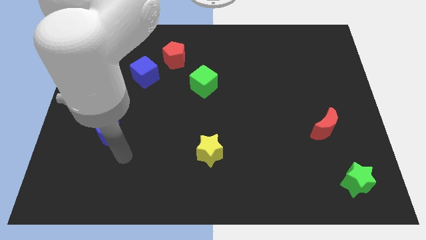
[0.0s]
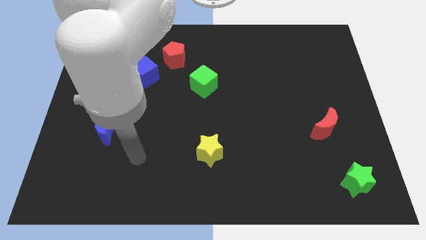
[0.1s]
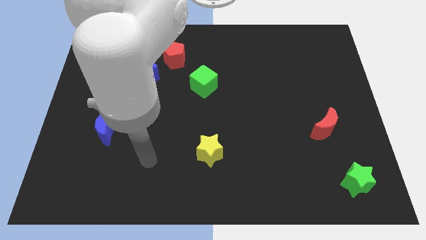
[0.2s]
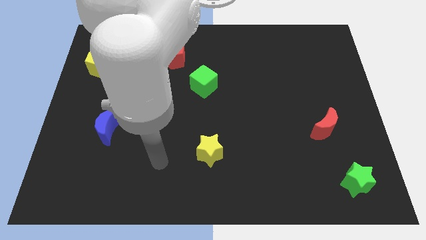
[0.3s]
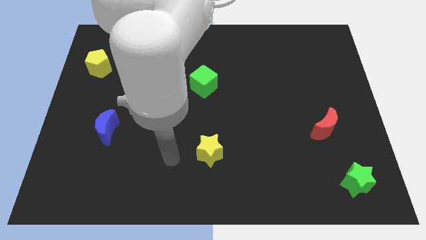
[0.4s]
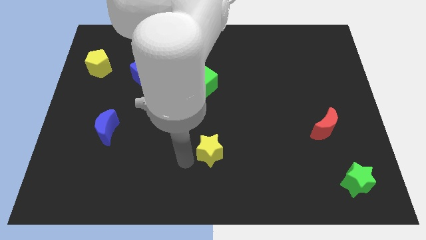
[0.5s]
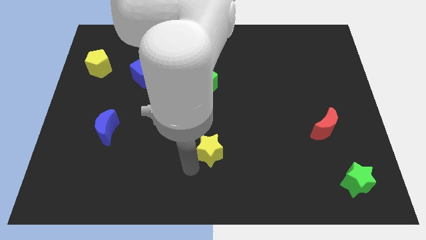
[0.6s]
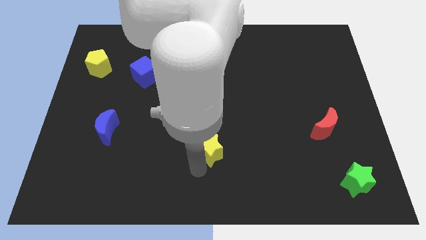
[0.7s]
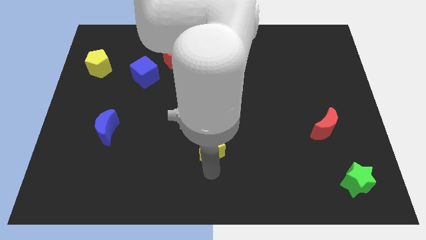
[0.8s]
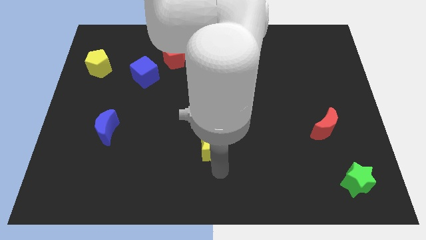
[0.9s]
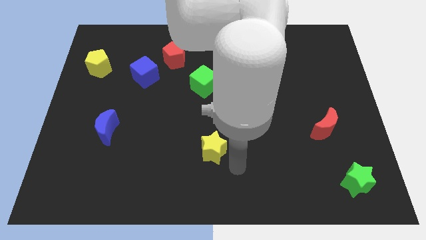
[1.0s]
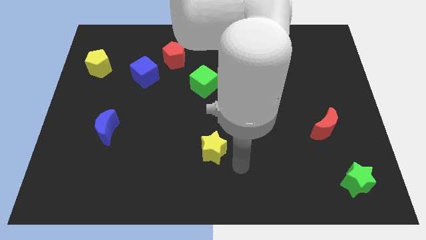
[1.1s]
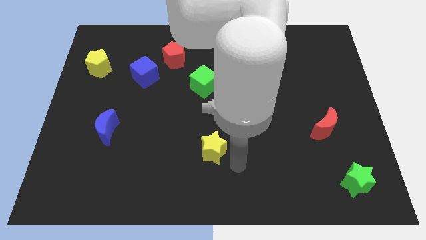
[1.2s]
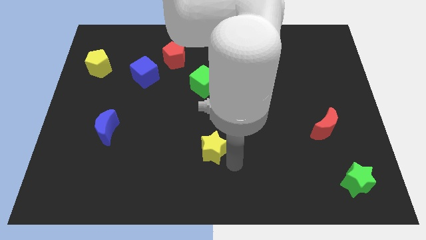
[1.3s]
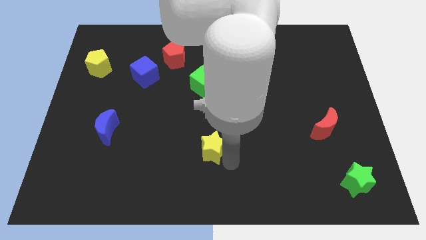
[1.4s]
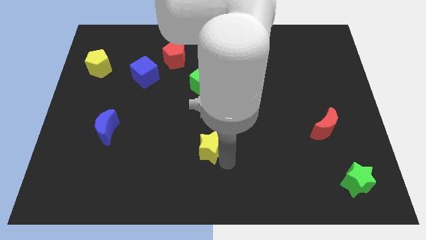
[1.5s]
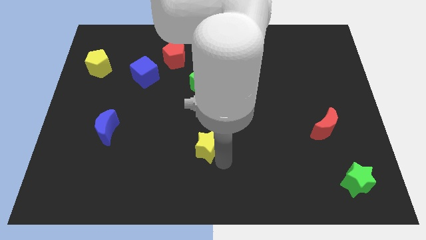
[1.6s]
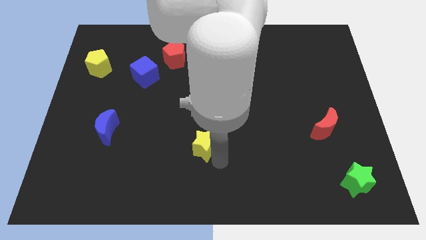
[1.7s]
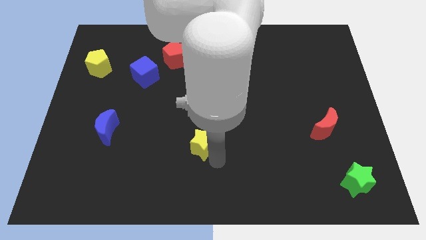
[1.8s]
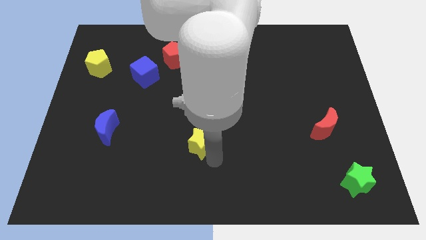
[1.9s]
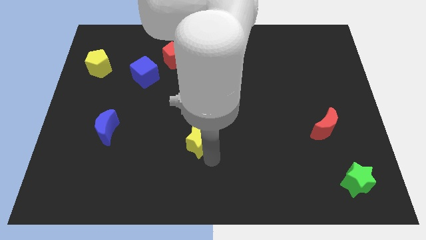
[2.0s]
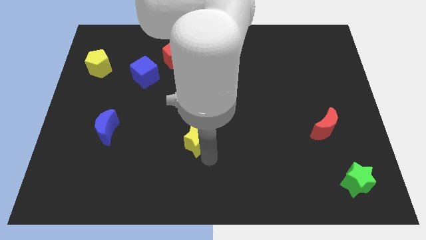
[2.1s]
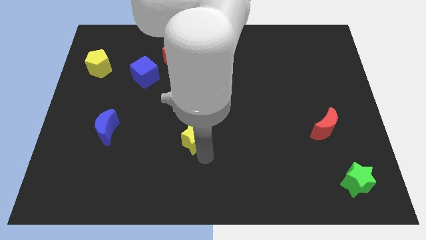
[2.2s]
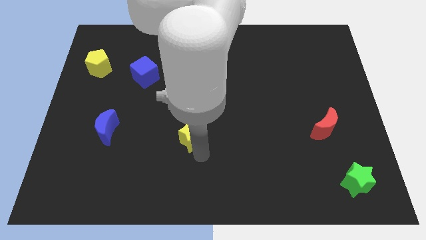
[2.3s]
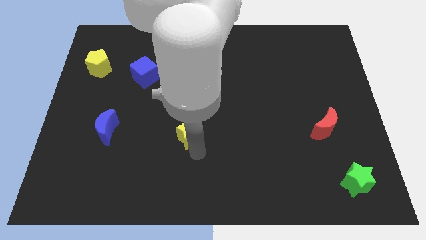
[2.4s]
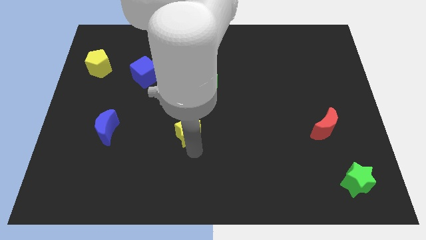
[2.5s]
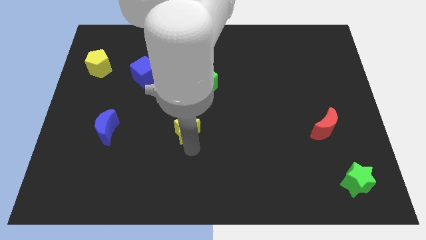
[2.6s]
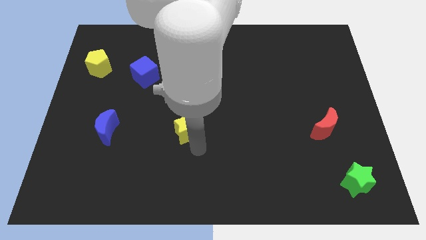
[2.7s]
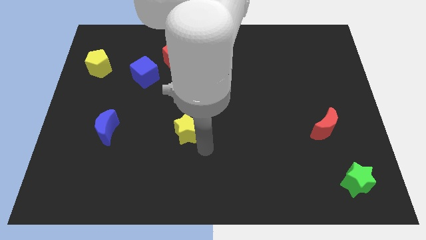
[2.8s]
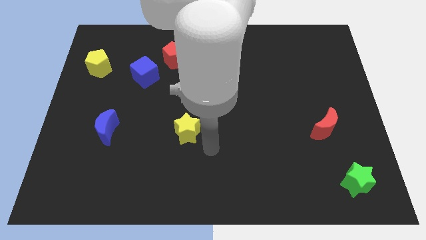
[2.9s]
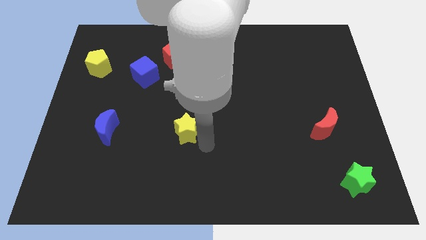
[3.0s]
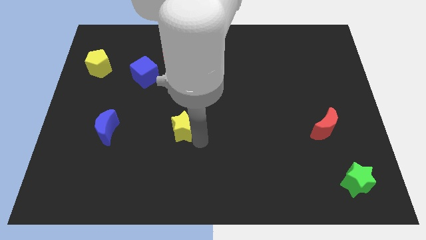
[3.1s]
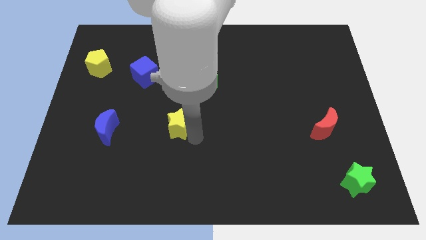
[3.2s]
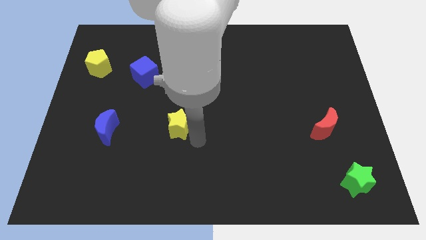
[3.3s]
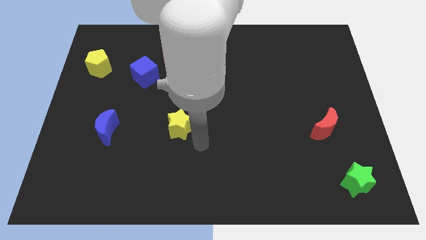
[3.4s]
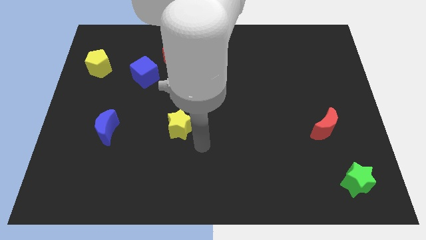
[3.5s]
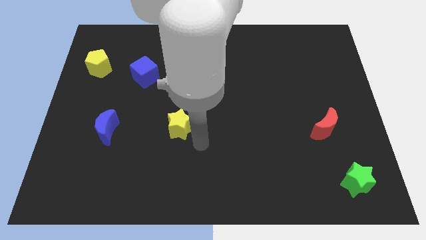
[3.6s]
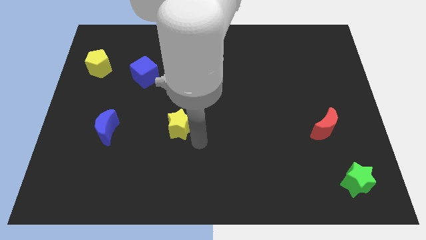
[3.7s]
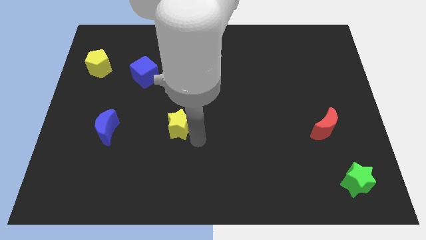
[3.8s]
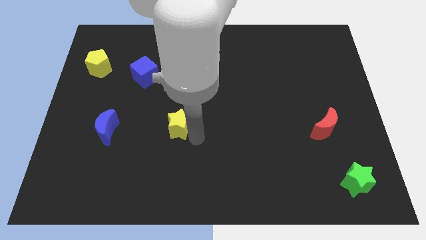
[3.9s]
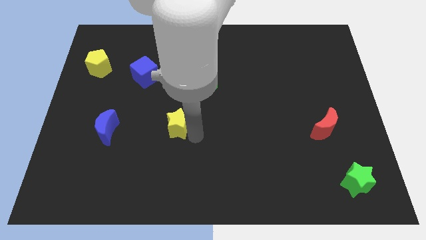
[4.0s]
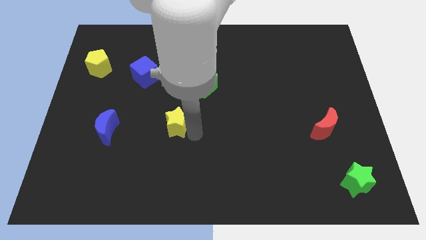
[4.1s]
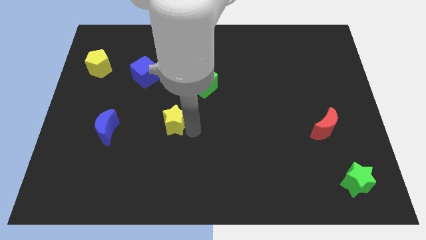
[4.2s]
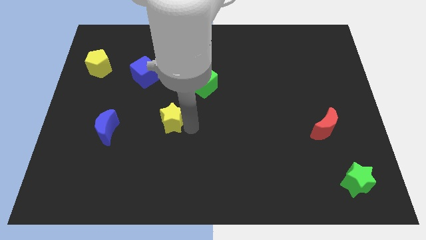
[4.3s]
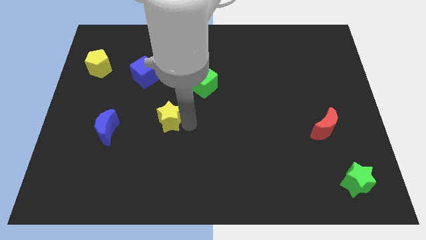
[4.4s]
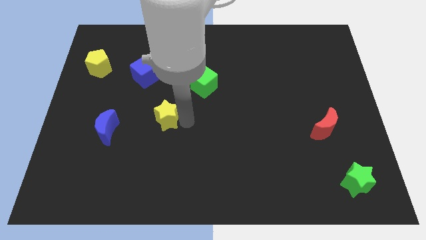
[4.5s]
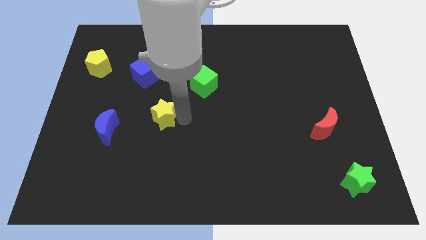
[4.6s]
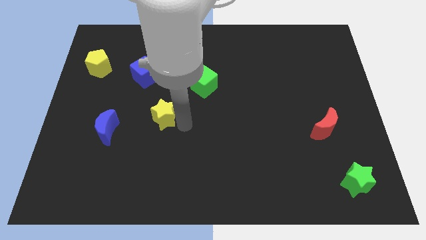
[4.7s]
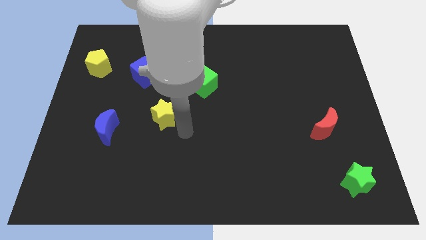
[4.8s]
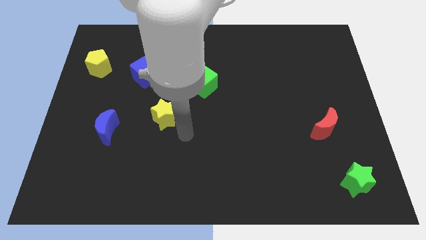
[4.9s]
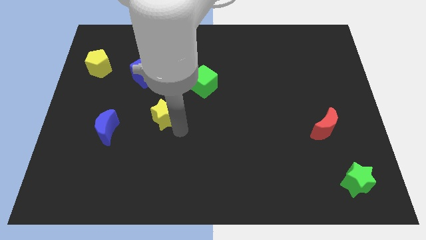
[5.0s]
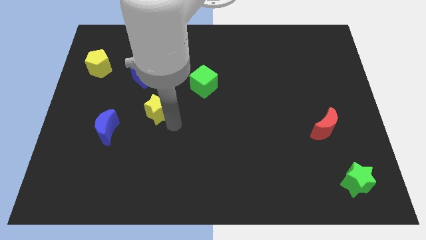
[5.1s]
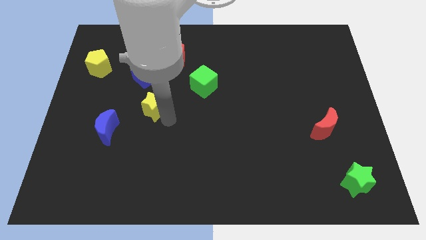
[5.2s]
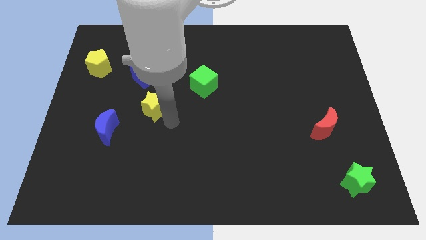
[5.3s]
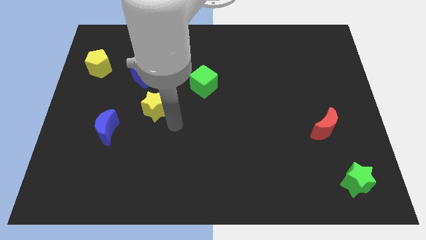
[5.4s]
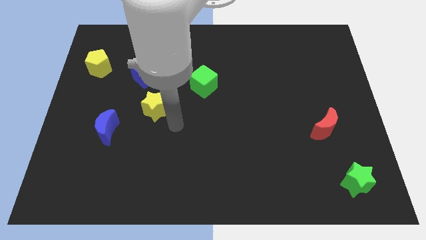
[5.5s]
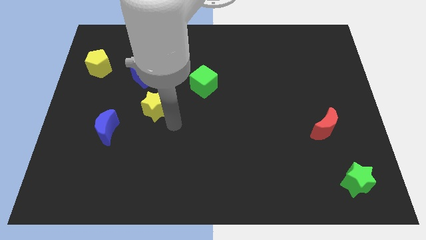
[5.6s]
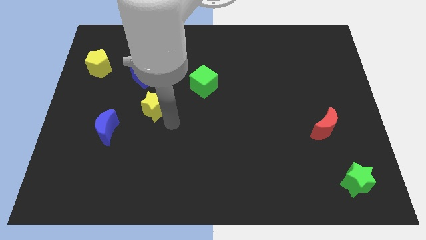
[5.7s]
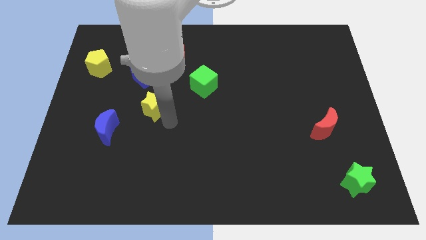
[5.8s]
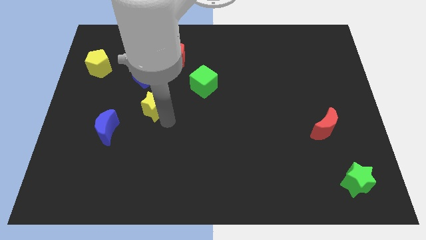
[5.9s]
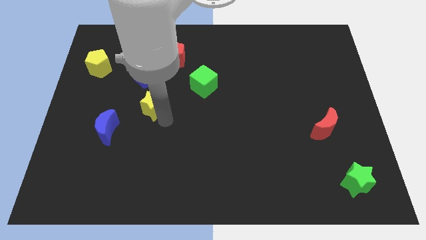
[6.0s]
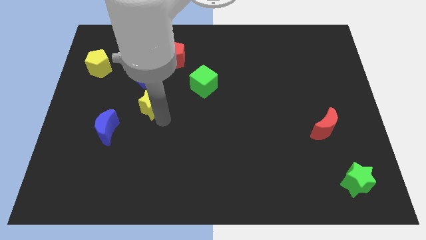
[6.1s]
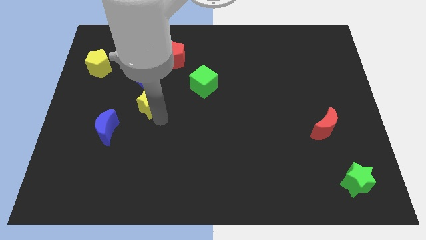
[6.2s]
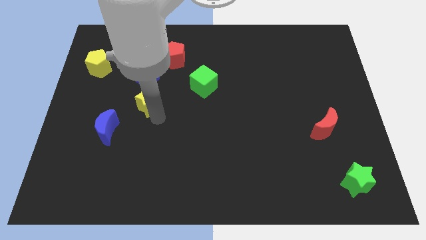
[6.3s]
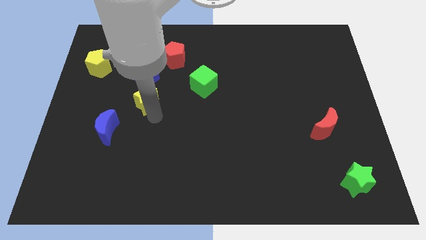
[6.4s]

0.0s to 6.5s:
slide the yellow star upwards and to the left diagonally

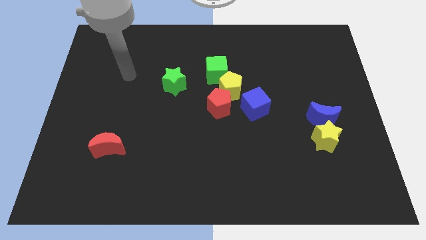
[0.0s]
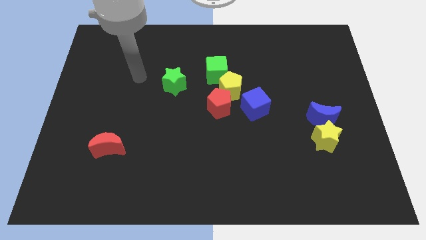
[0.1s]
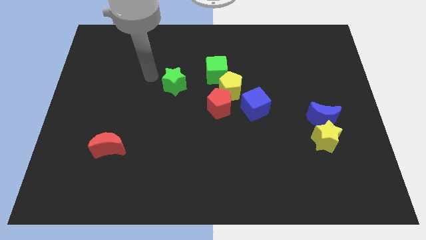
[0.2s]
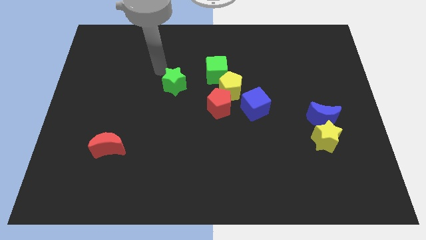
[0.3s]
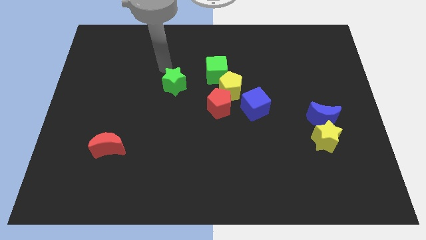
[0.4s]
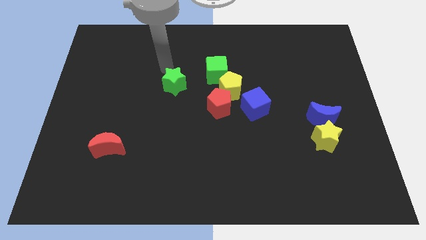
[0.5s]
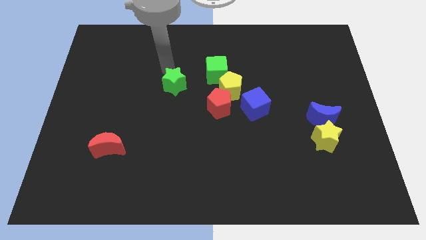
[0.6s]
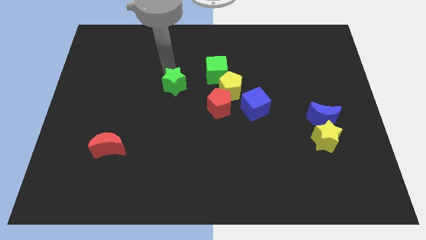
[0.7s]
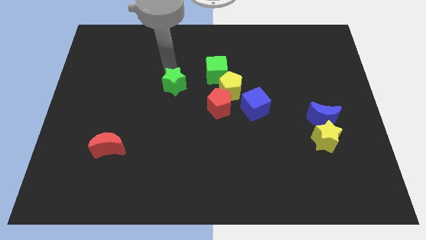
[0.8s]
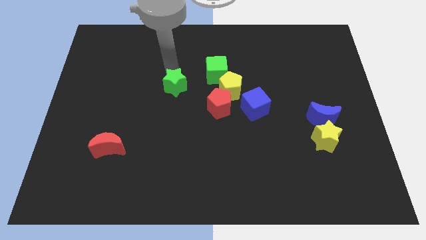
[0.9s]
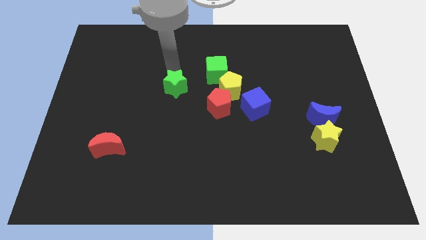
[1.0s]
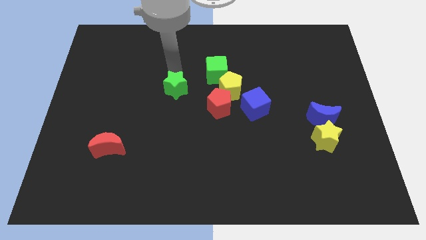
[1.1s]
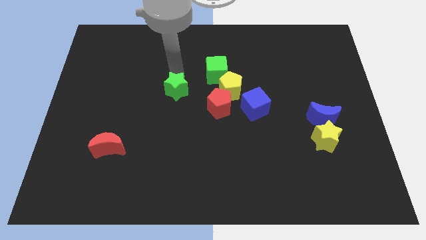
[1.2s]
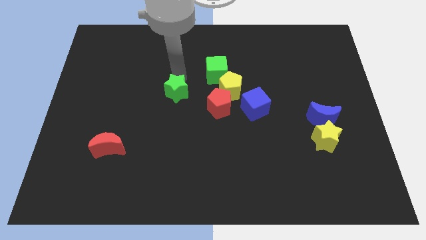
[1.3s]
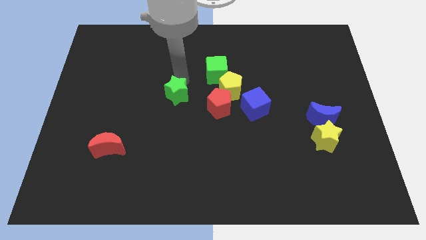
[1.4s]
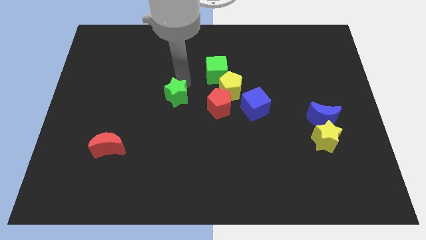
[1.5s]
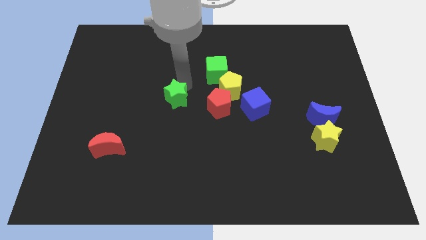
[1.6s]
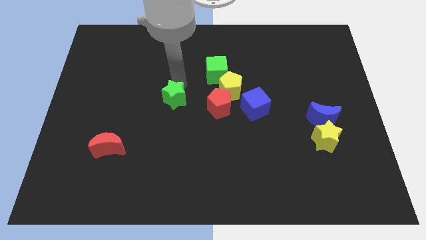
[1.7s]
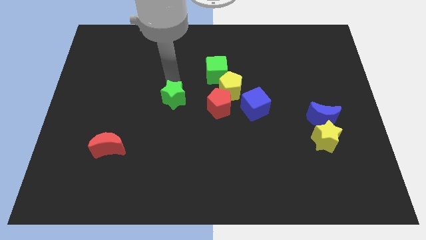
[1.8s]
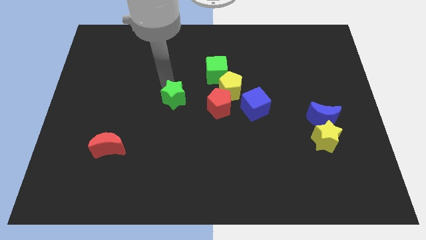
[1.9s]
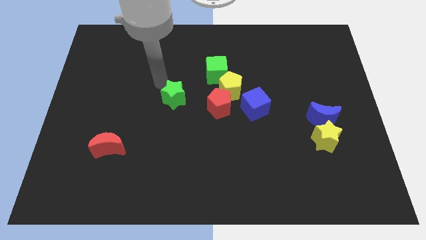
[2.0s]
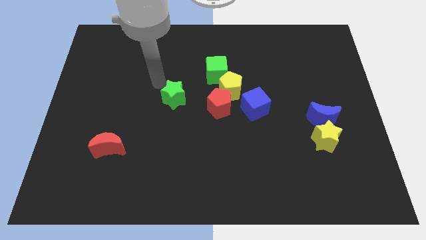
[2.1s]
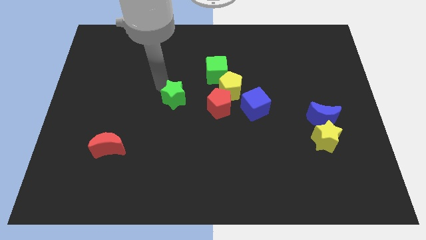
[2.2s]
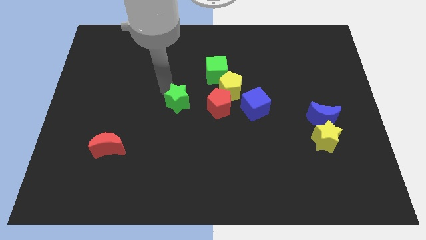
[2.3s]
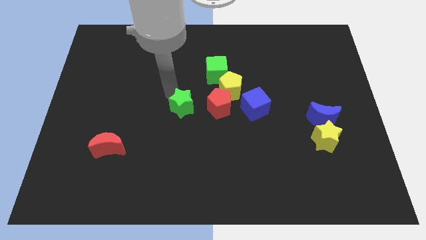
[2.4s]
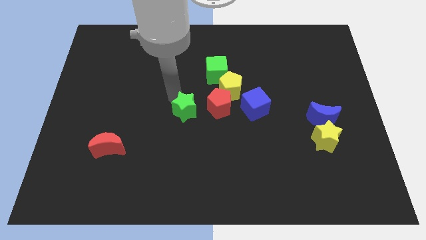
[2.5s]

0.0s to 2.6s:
slightly move the green star downwards and then to the right
